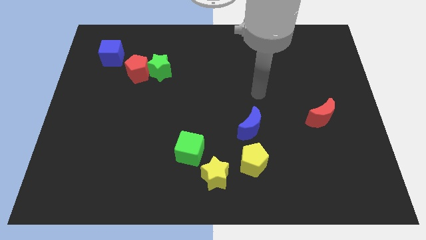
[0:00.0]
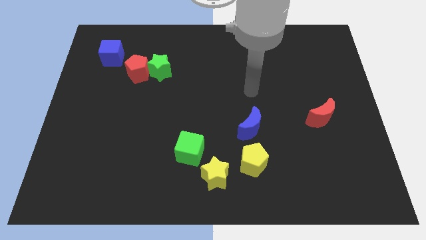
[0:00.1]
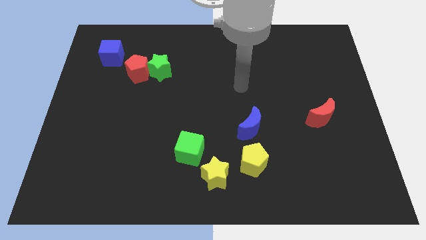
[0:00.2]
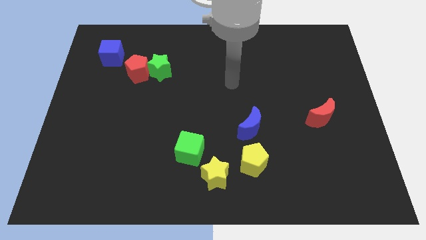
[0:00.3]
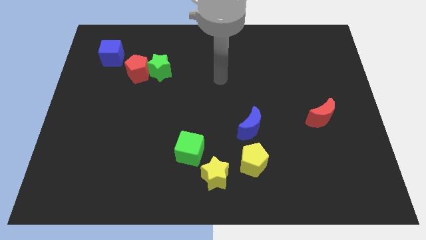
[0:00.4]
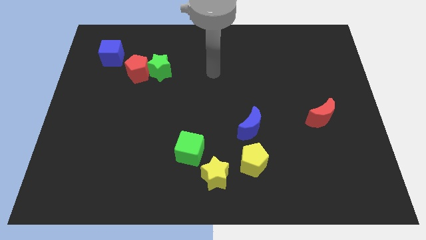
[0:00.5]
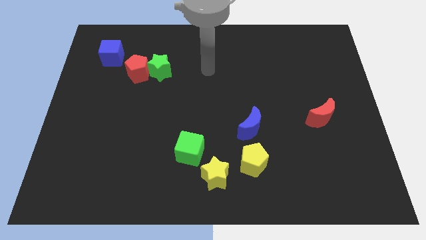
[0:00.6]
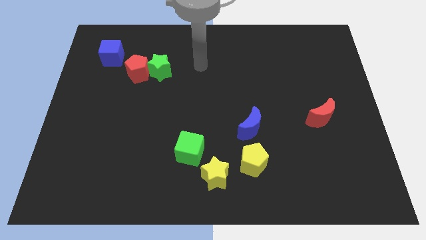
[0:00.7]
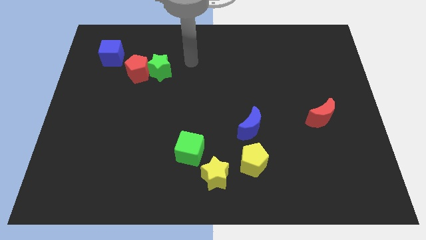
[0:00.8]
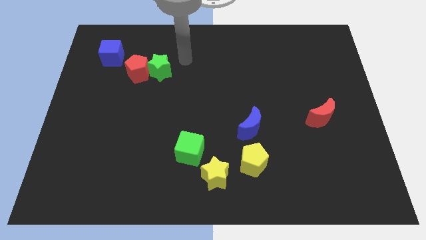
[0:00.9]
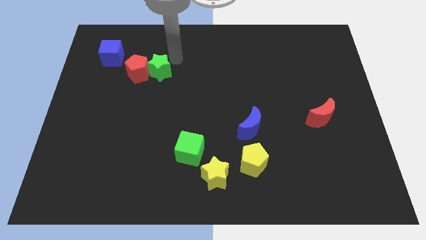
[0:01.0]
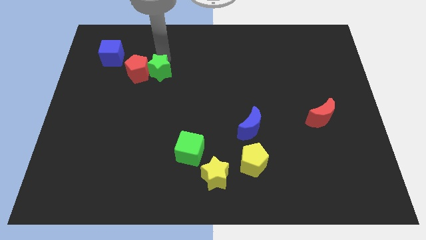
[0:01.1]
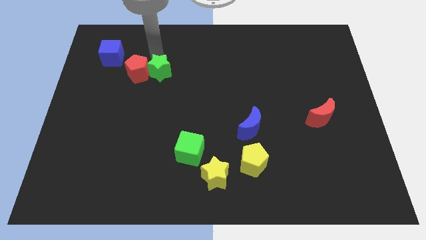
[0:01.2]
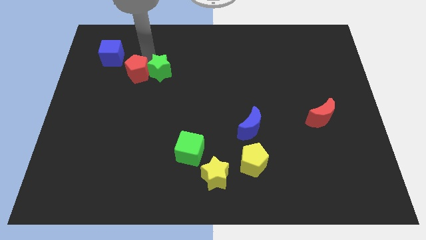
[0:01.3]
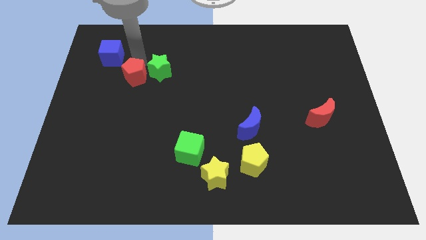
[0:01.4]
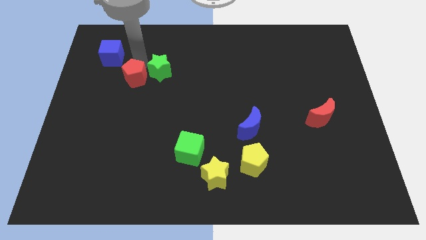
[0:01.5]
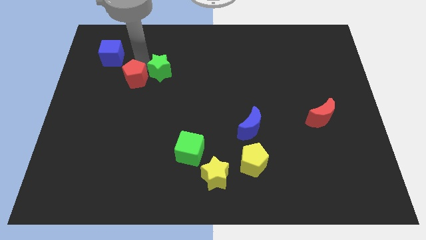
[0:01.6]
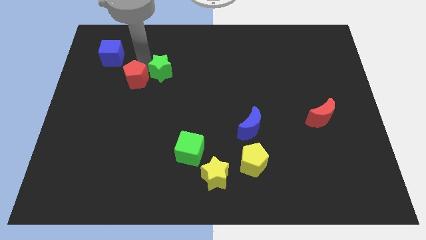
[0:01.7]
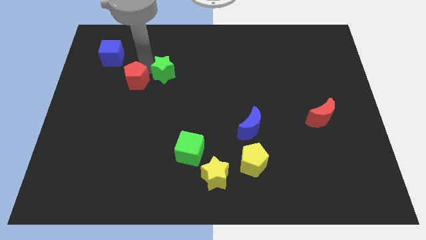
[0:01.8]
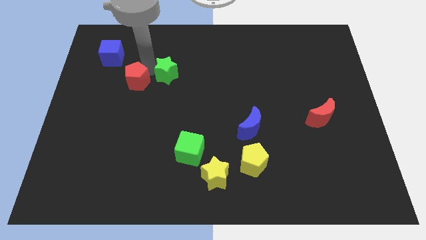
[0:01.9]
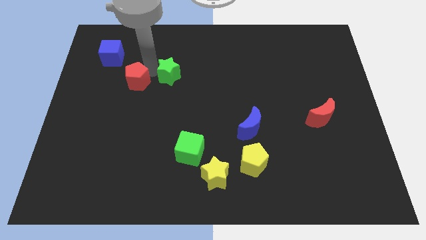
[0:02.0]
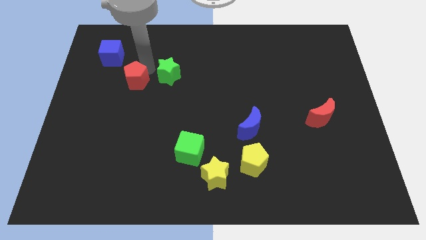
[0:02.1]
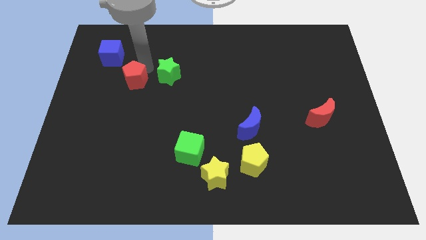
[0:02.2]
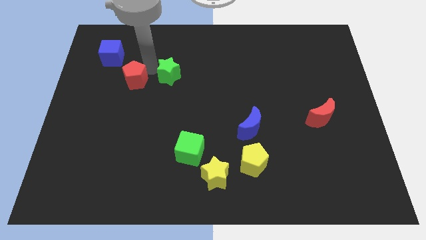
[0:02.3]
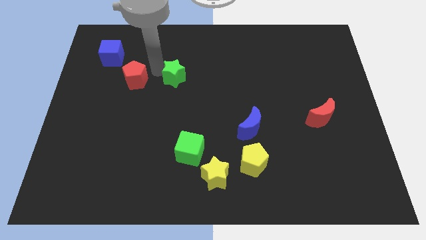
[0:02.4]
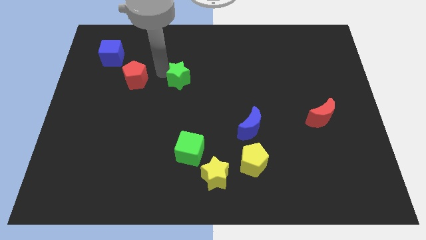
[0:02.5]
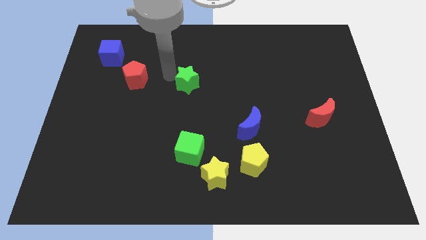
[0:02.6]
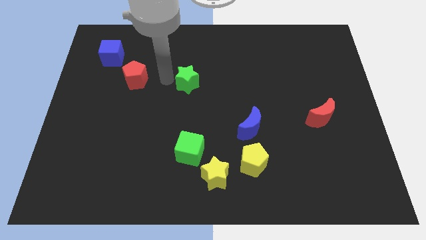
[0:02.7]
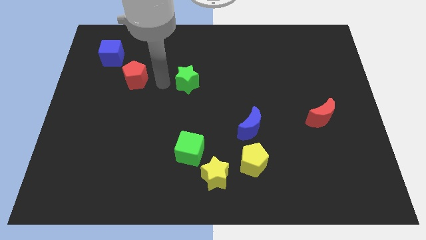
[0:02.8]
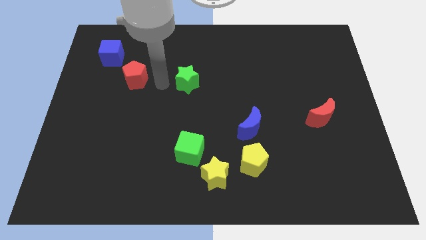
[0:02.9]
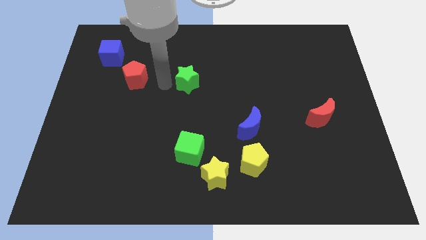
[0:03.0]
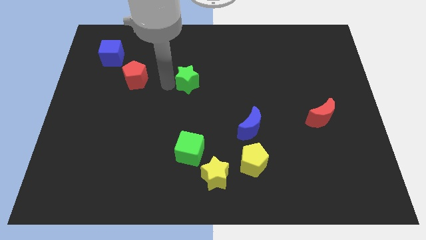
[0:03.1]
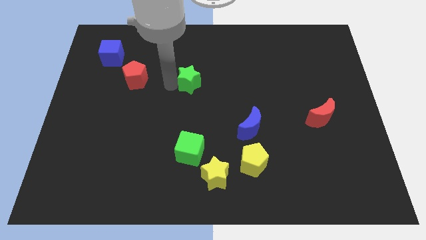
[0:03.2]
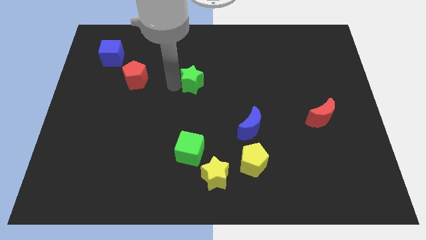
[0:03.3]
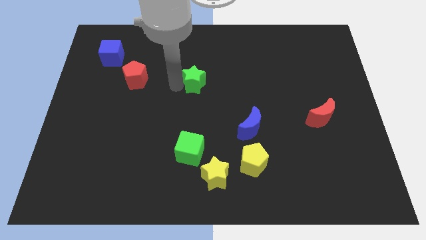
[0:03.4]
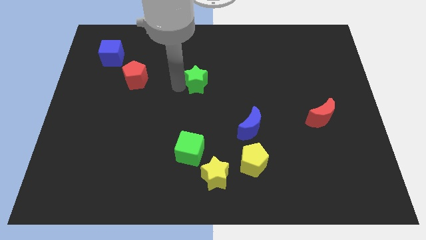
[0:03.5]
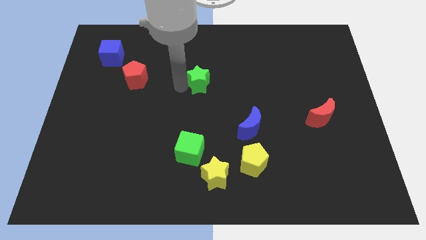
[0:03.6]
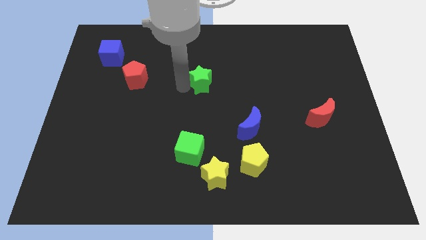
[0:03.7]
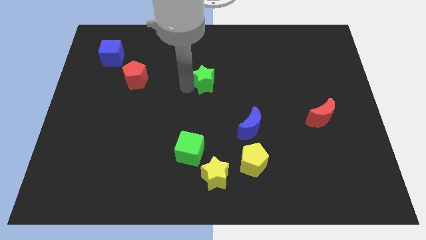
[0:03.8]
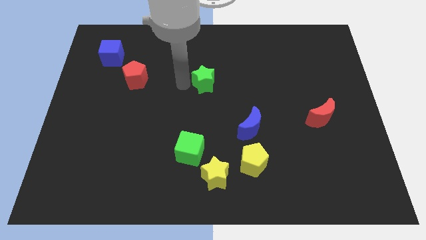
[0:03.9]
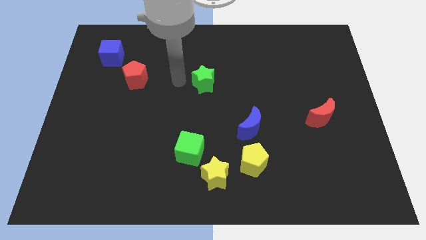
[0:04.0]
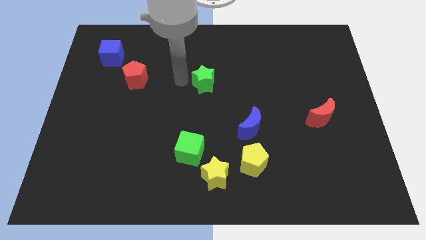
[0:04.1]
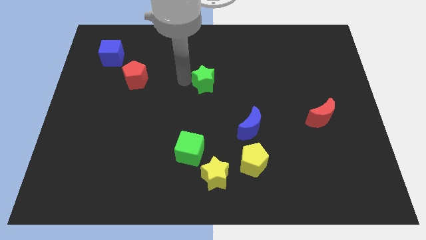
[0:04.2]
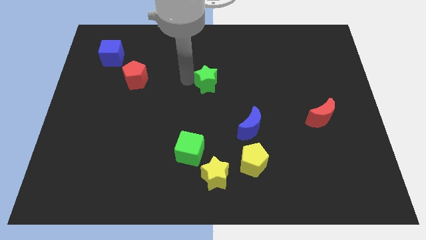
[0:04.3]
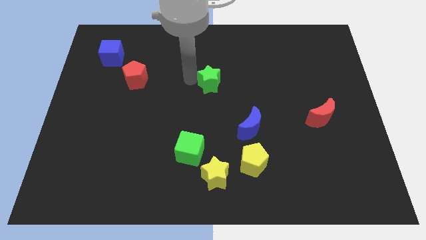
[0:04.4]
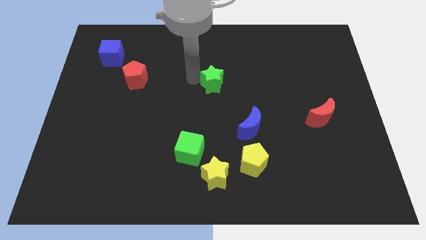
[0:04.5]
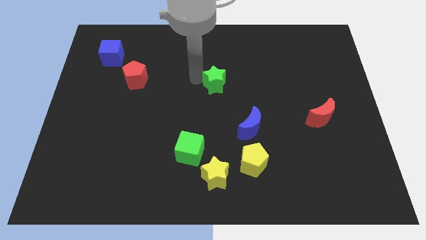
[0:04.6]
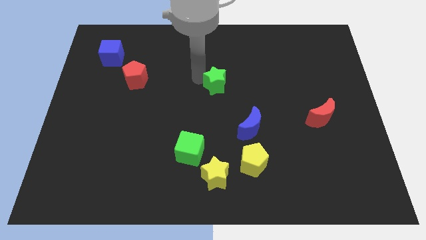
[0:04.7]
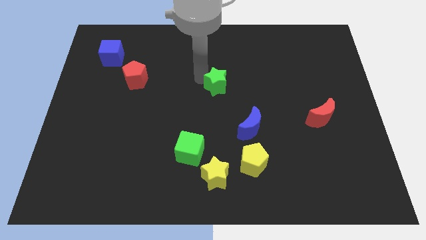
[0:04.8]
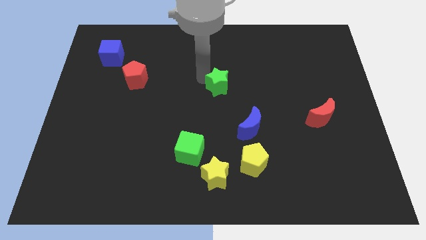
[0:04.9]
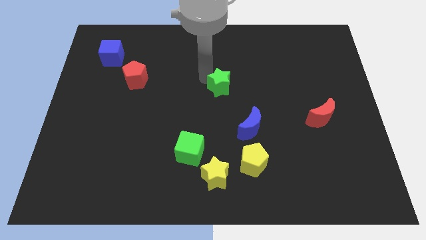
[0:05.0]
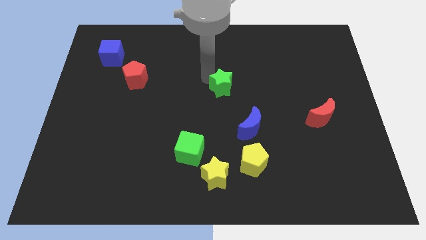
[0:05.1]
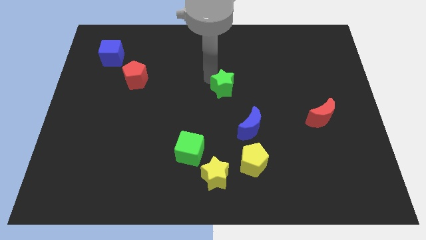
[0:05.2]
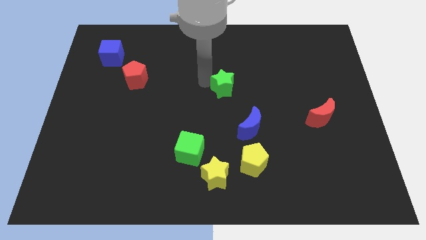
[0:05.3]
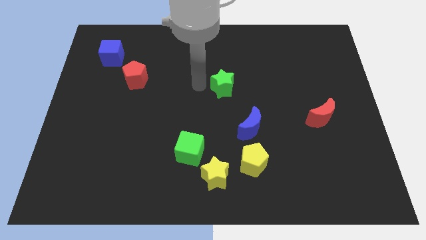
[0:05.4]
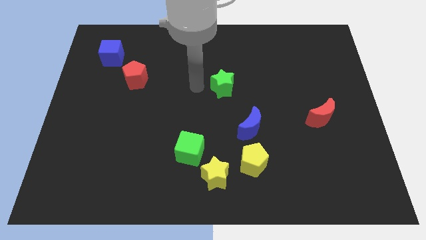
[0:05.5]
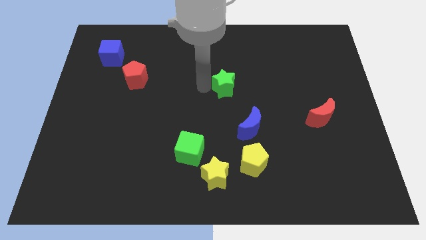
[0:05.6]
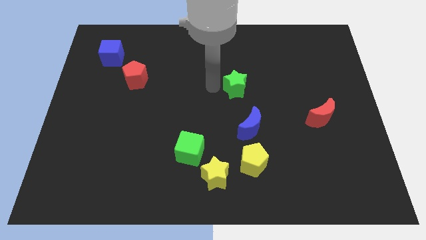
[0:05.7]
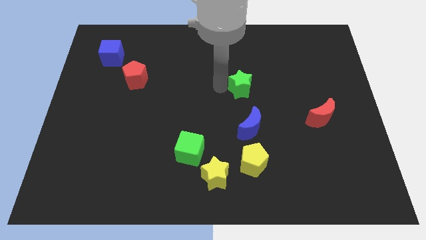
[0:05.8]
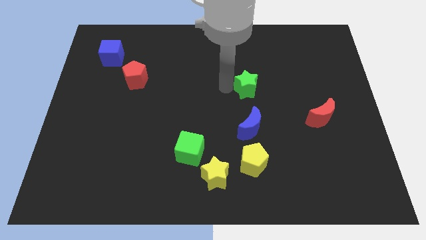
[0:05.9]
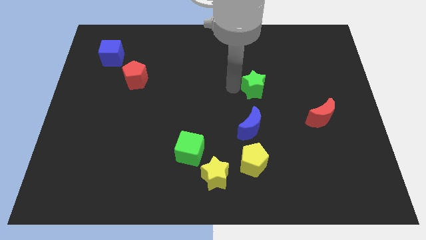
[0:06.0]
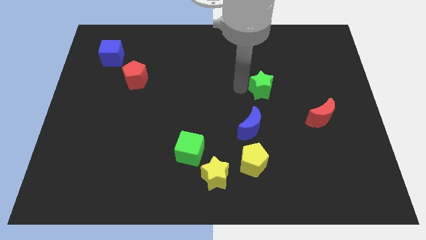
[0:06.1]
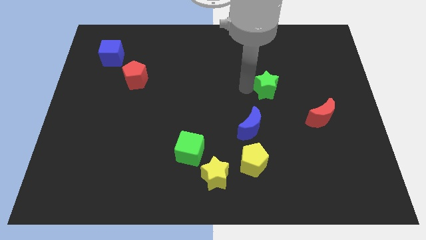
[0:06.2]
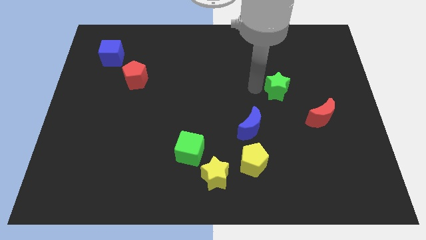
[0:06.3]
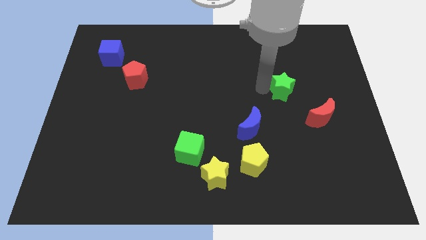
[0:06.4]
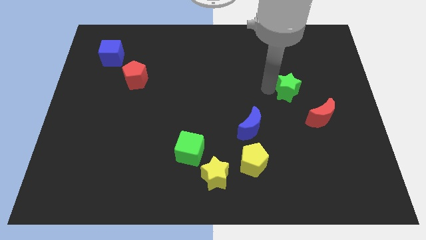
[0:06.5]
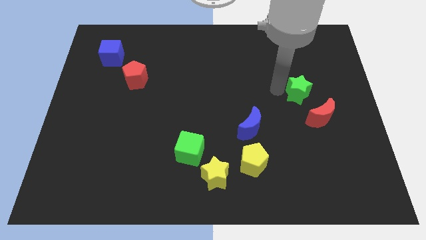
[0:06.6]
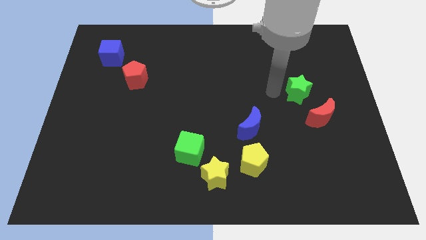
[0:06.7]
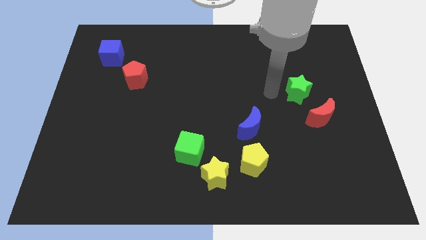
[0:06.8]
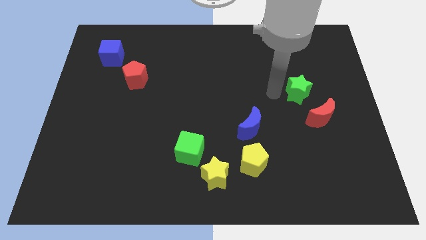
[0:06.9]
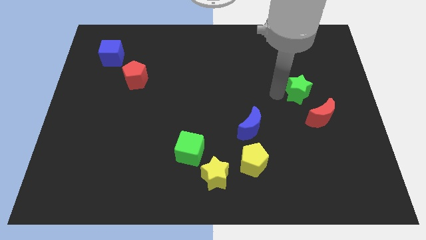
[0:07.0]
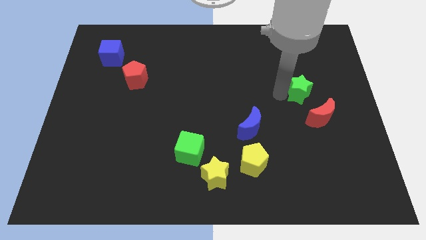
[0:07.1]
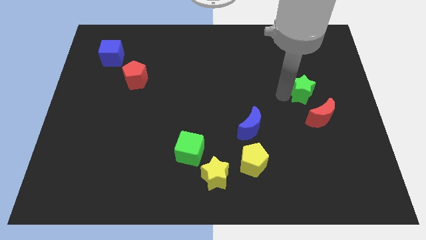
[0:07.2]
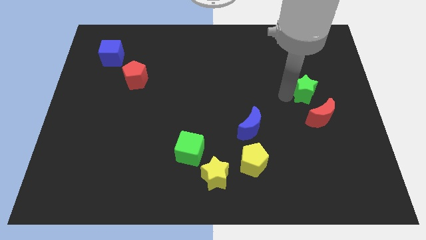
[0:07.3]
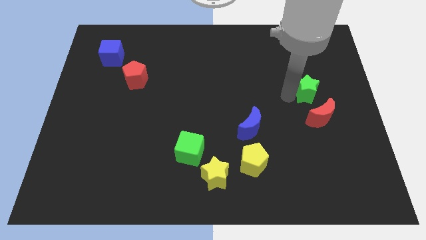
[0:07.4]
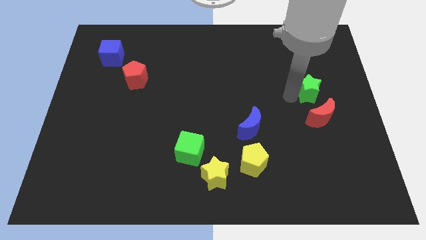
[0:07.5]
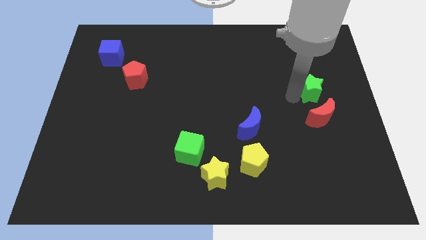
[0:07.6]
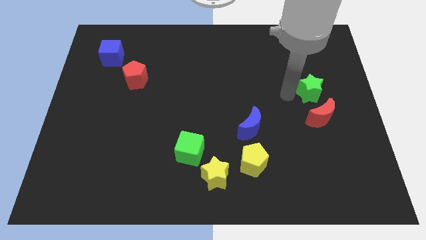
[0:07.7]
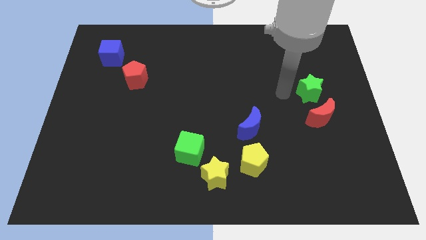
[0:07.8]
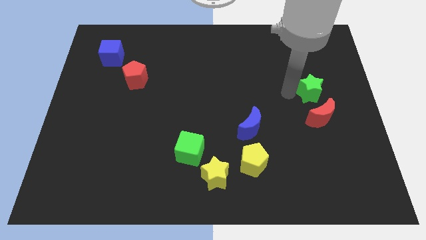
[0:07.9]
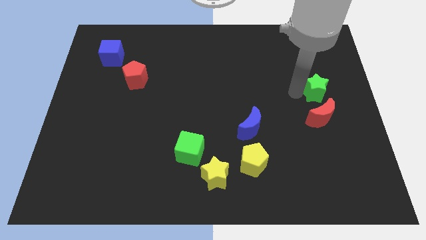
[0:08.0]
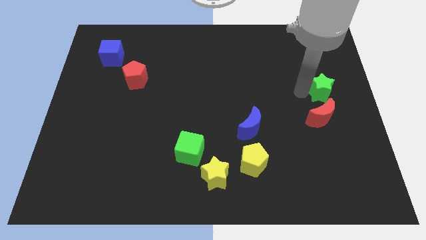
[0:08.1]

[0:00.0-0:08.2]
put the green star to the right side
